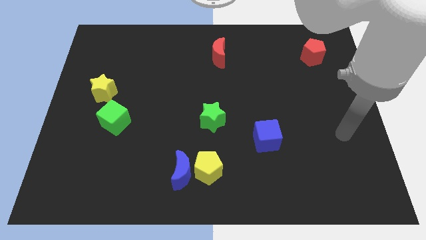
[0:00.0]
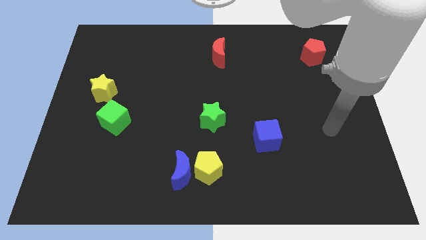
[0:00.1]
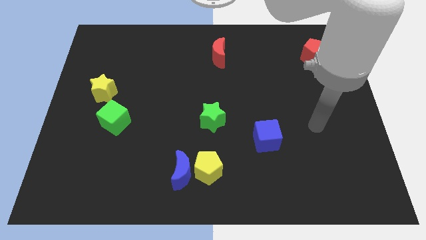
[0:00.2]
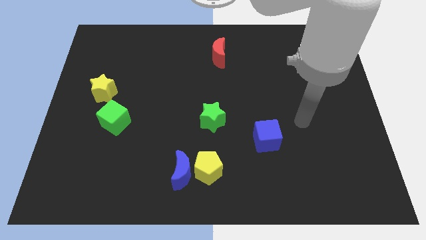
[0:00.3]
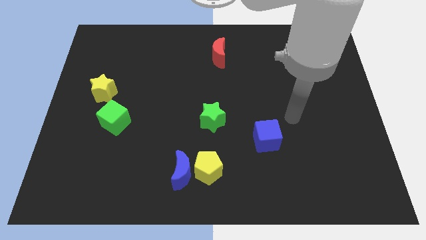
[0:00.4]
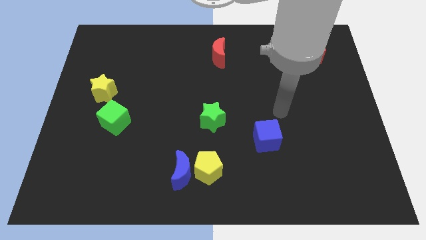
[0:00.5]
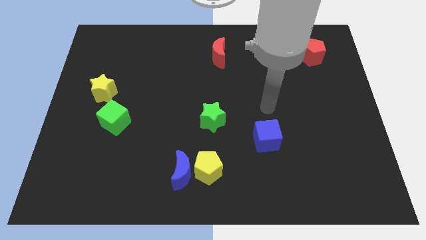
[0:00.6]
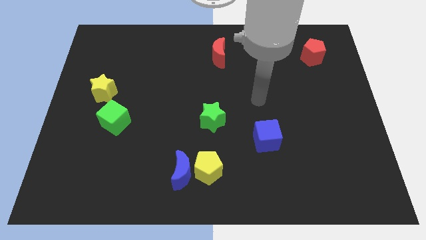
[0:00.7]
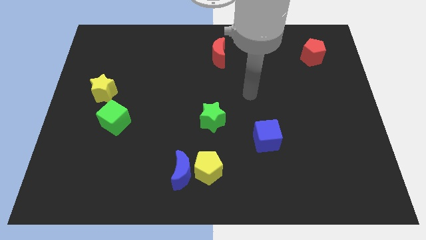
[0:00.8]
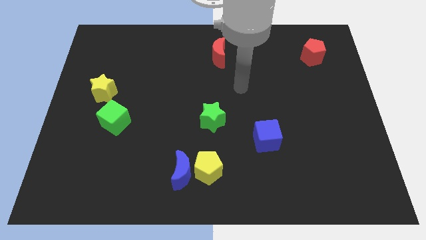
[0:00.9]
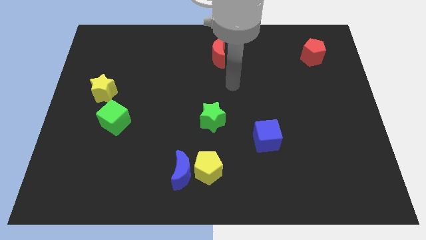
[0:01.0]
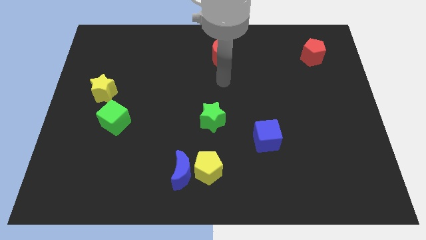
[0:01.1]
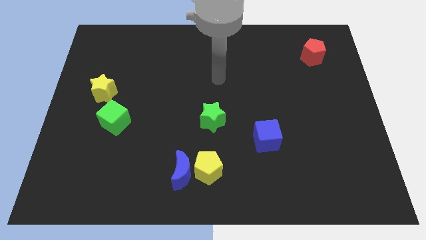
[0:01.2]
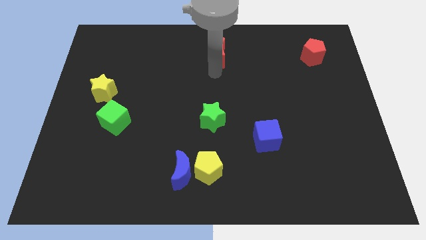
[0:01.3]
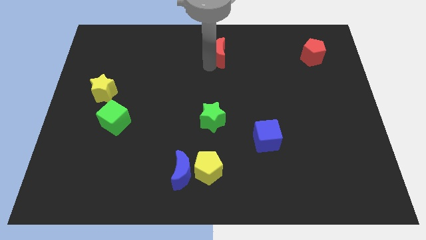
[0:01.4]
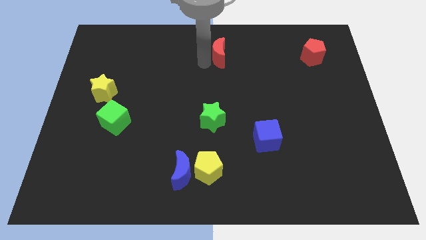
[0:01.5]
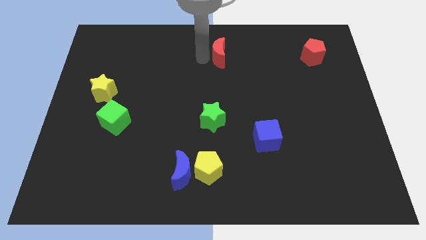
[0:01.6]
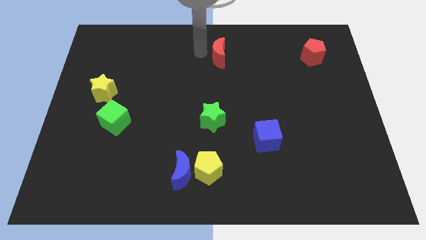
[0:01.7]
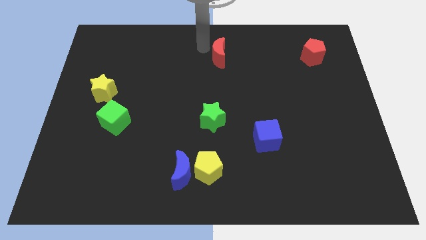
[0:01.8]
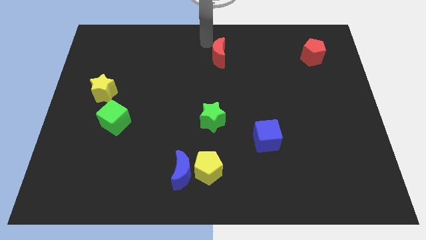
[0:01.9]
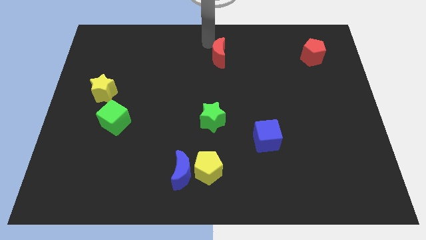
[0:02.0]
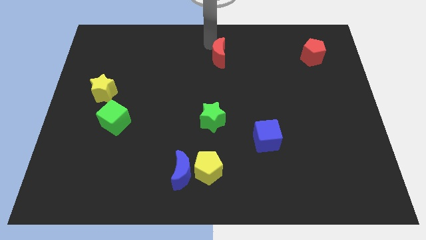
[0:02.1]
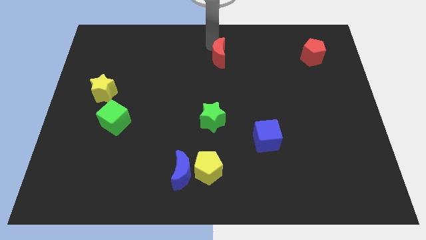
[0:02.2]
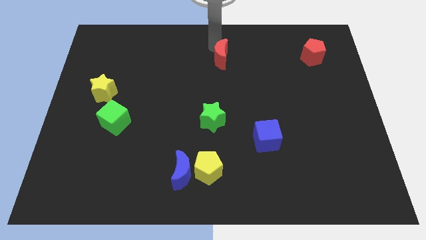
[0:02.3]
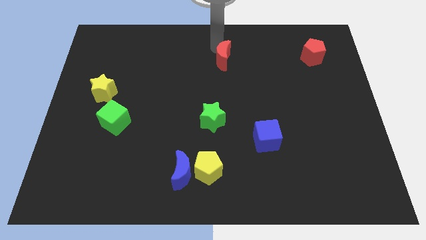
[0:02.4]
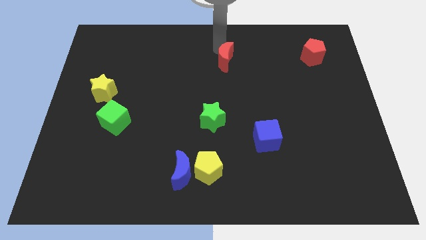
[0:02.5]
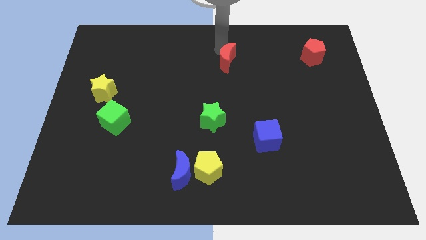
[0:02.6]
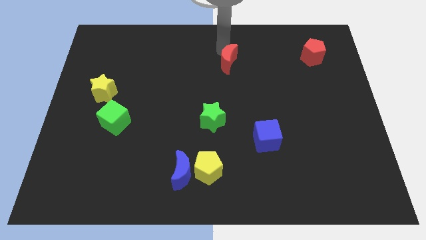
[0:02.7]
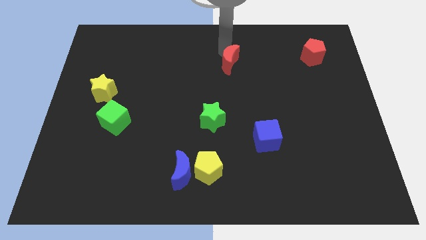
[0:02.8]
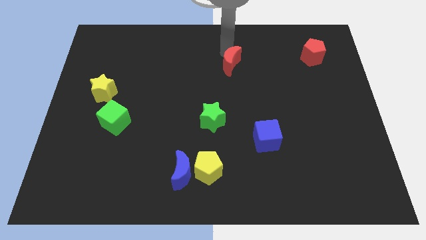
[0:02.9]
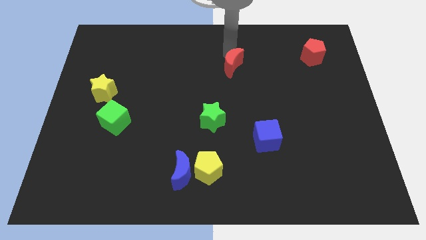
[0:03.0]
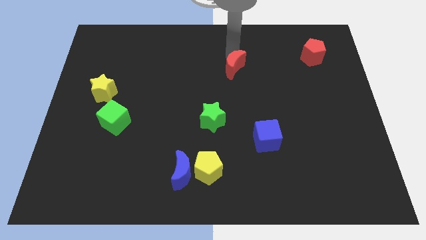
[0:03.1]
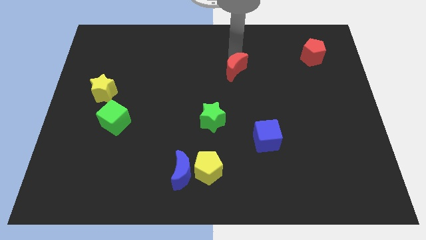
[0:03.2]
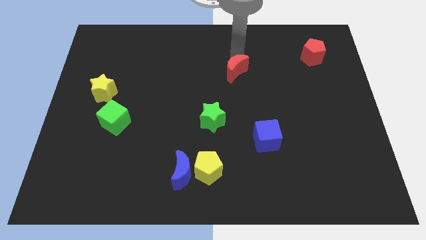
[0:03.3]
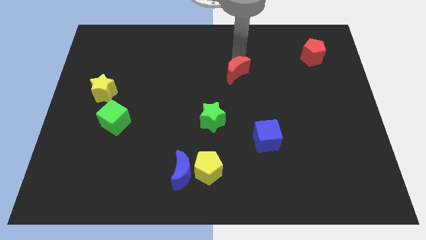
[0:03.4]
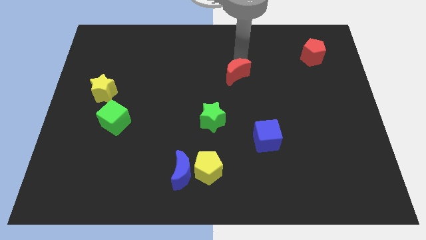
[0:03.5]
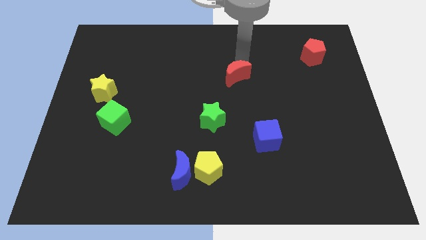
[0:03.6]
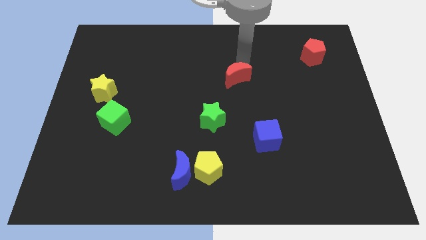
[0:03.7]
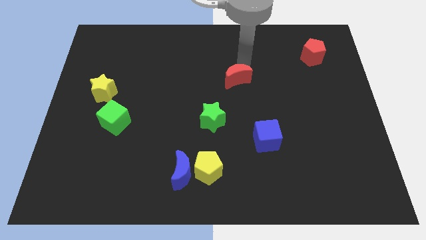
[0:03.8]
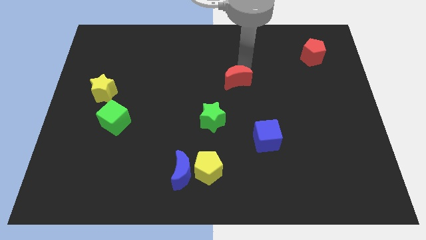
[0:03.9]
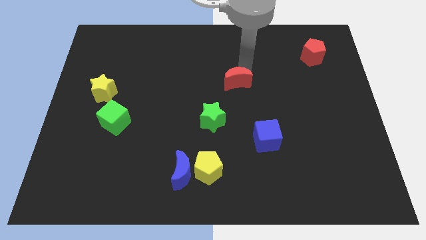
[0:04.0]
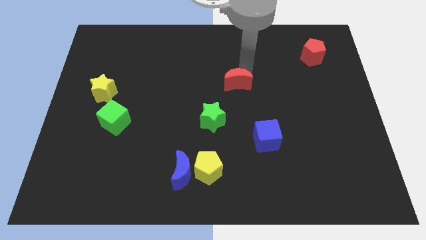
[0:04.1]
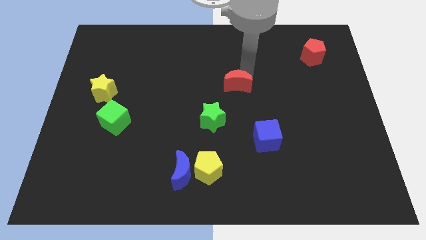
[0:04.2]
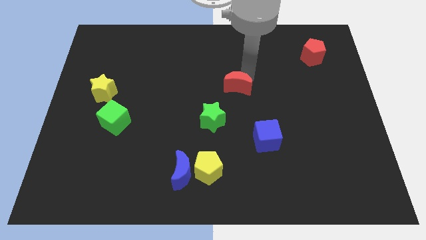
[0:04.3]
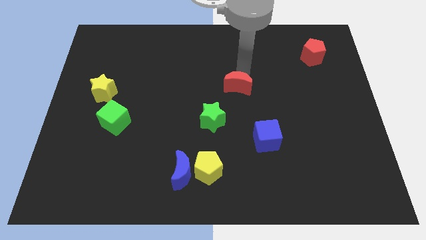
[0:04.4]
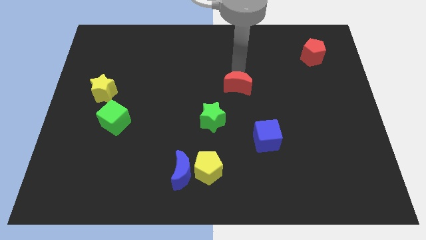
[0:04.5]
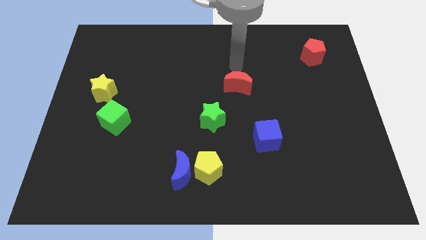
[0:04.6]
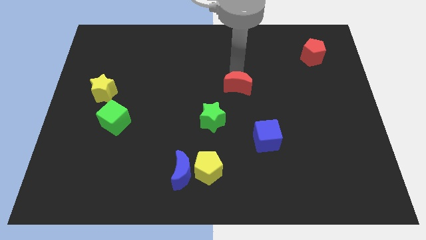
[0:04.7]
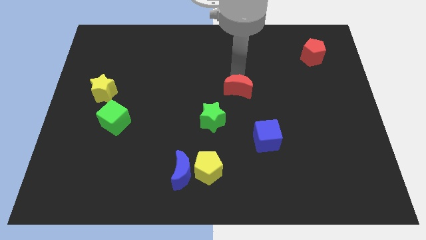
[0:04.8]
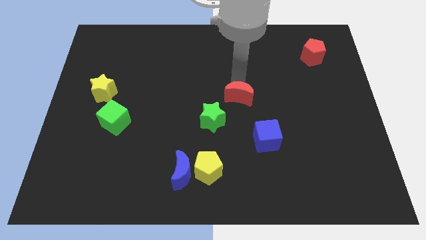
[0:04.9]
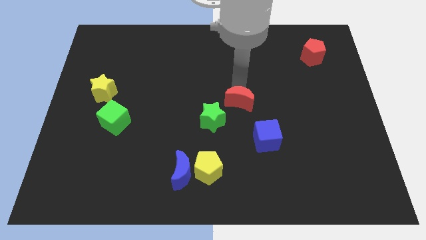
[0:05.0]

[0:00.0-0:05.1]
put the red moon to the top left side of the blue cube

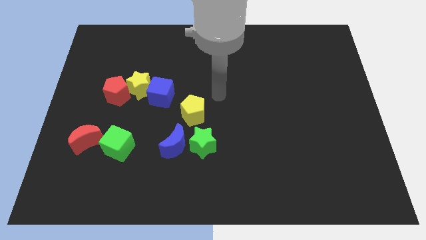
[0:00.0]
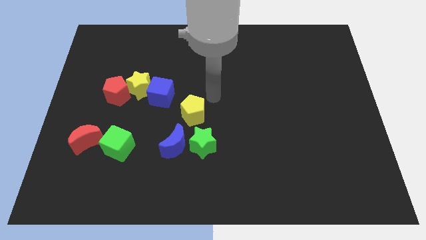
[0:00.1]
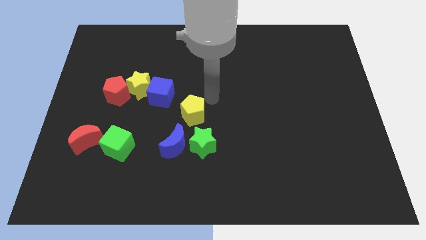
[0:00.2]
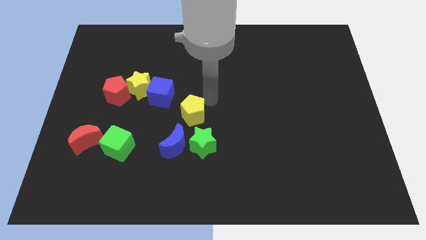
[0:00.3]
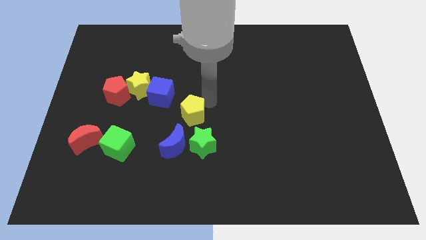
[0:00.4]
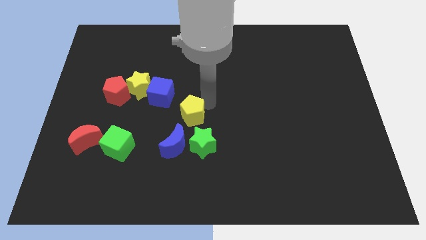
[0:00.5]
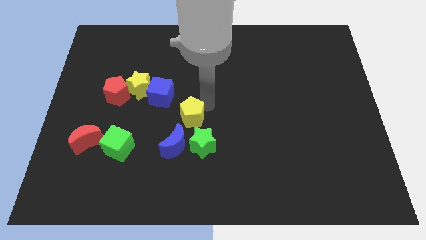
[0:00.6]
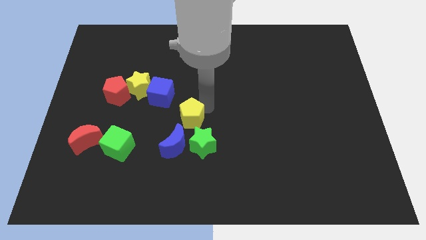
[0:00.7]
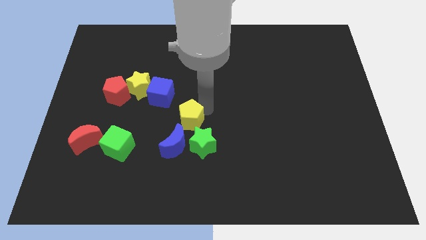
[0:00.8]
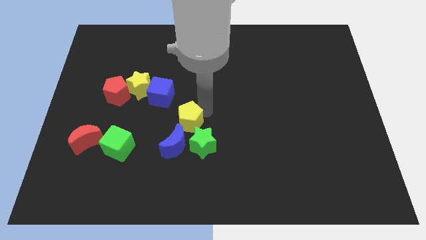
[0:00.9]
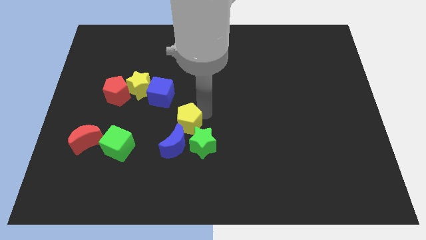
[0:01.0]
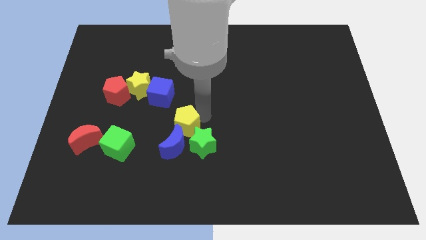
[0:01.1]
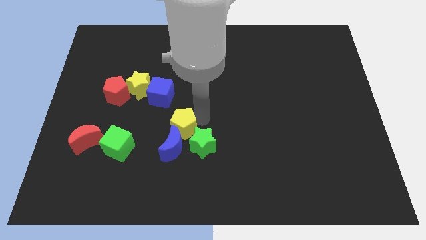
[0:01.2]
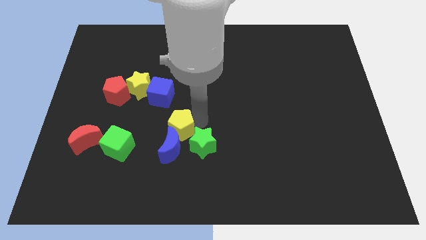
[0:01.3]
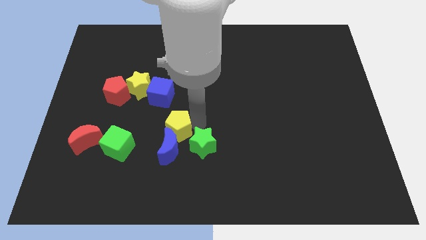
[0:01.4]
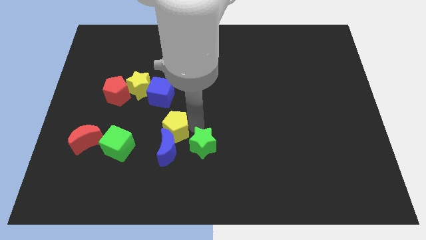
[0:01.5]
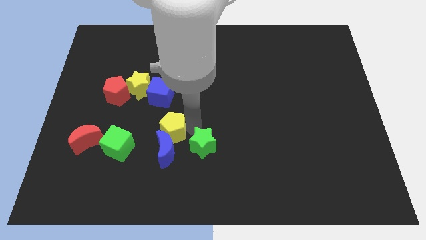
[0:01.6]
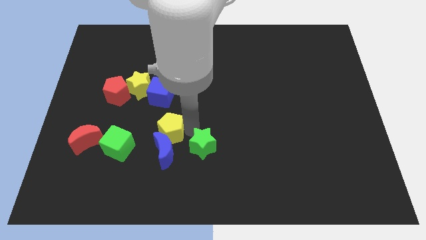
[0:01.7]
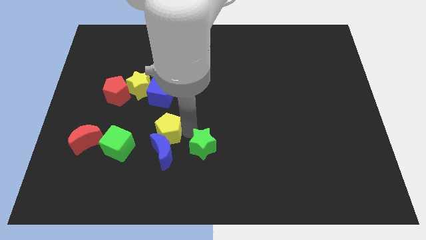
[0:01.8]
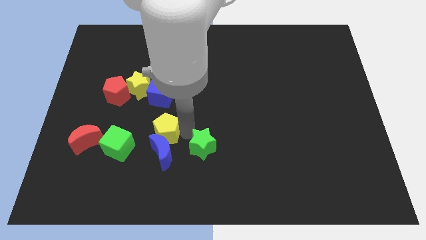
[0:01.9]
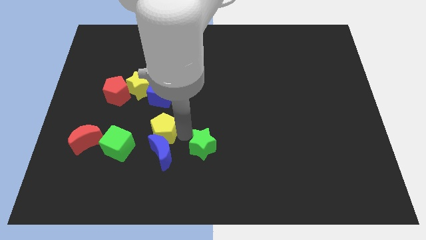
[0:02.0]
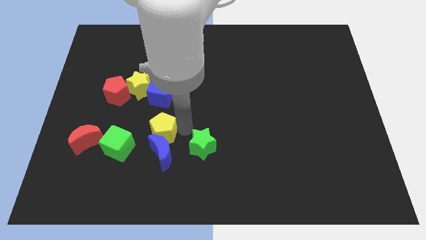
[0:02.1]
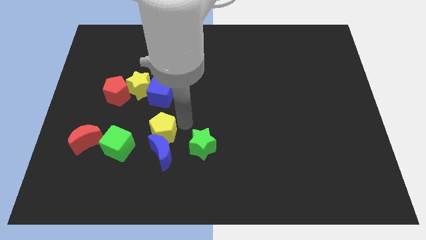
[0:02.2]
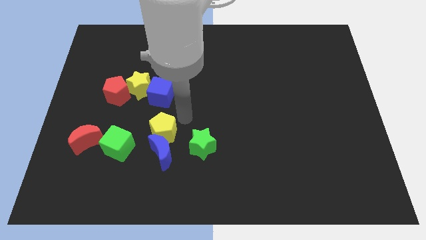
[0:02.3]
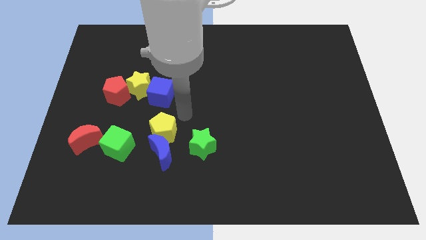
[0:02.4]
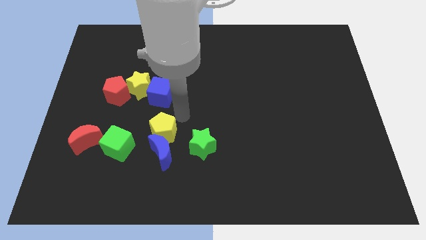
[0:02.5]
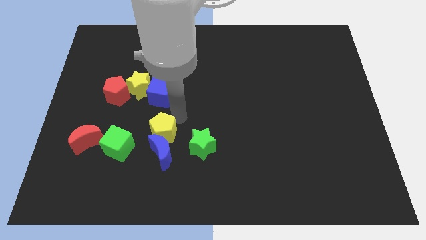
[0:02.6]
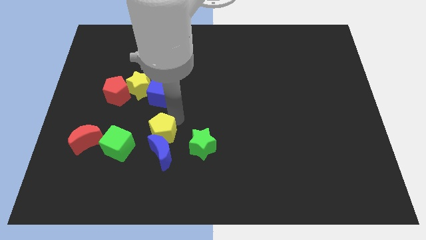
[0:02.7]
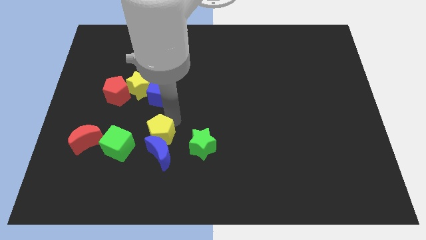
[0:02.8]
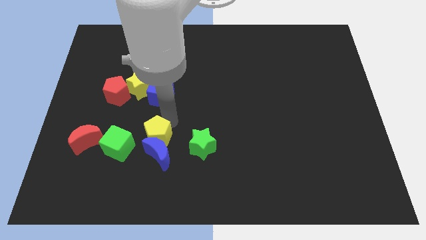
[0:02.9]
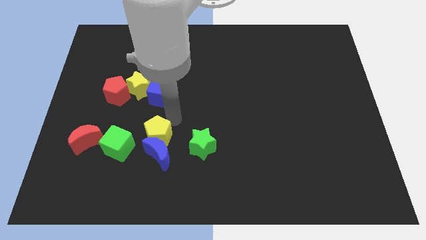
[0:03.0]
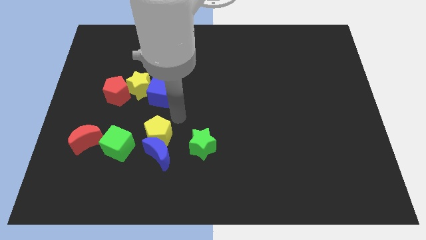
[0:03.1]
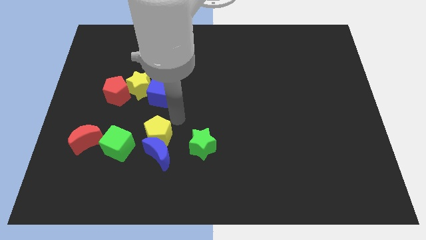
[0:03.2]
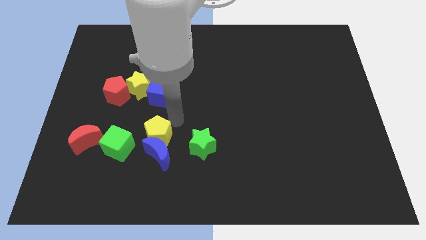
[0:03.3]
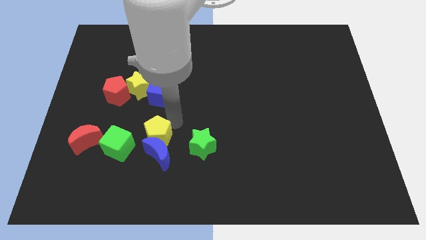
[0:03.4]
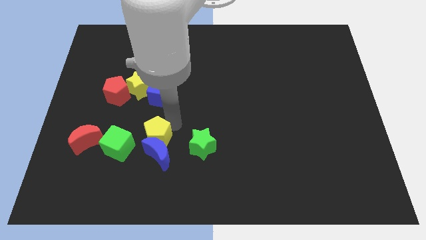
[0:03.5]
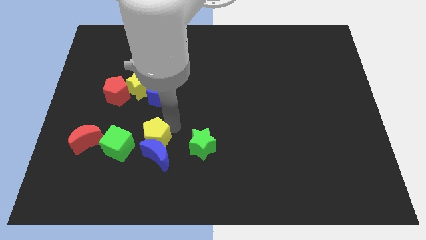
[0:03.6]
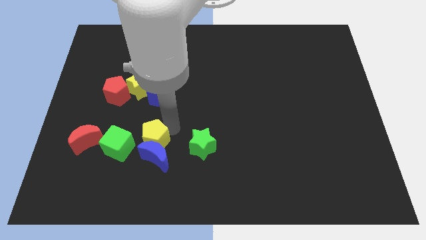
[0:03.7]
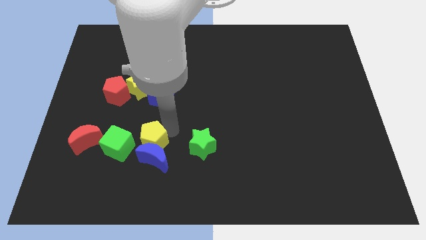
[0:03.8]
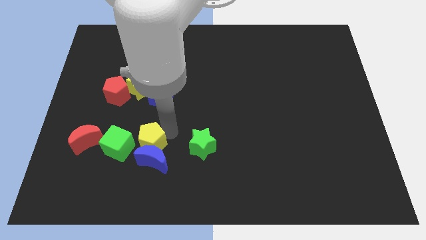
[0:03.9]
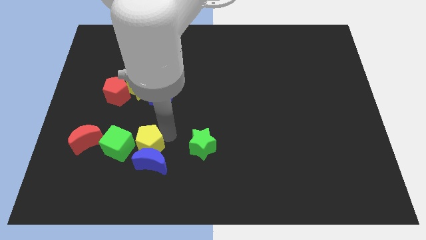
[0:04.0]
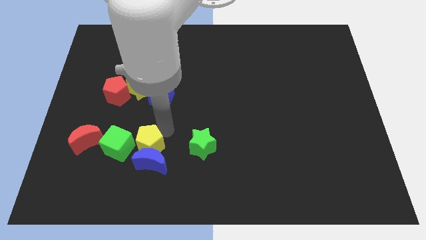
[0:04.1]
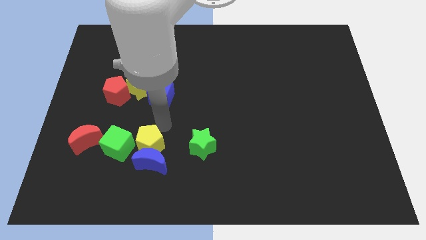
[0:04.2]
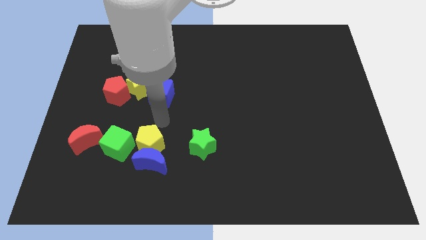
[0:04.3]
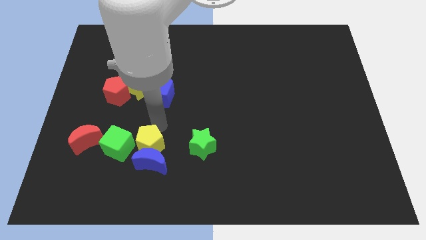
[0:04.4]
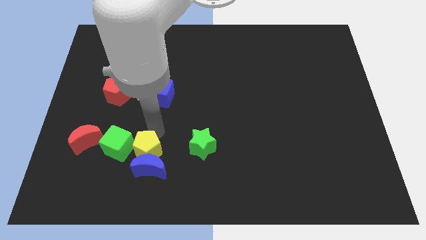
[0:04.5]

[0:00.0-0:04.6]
slide the yellow pentagon diagonally down and to the right of the green cube
